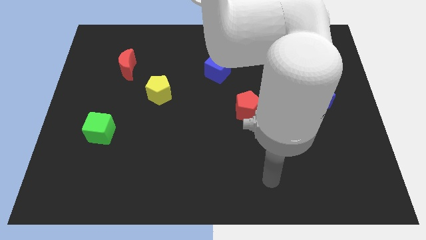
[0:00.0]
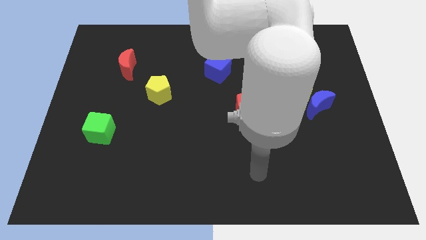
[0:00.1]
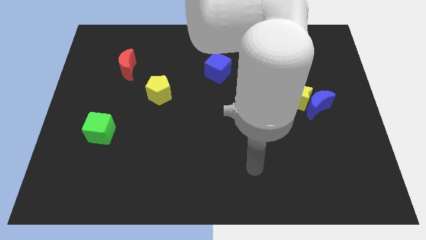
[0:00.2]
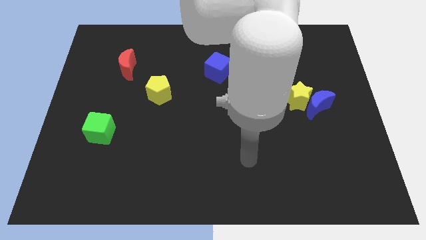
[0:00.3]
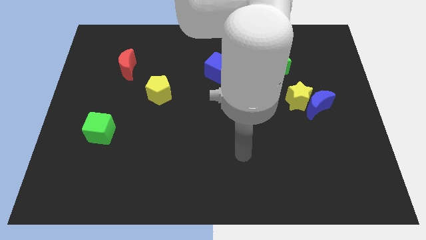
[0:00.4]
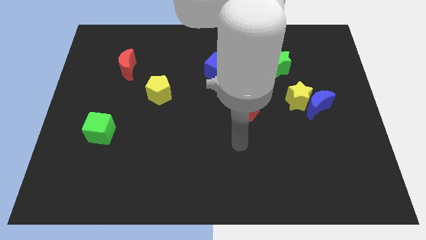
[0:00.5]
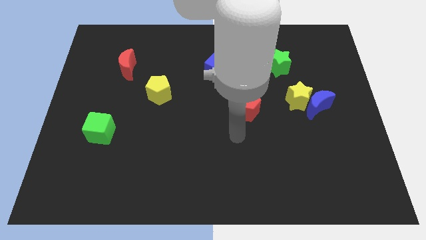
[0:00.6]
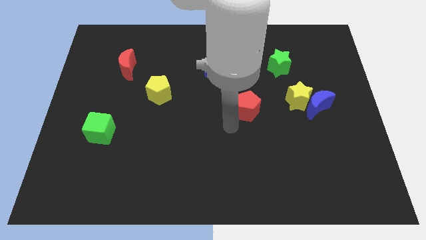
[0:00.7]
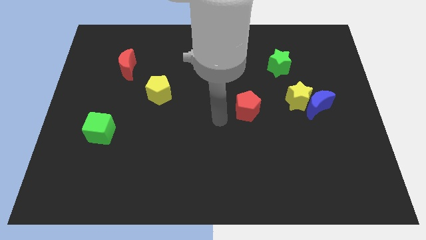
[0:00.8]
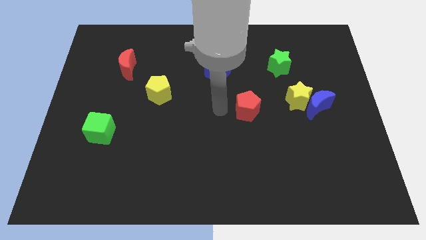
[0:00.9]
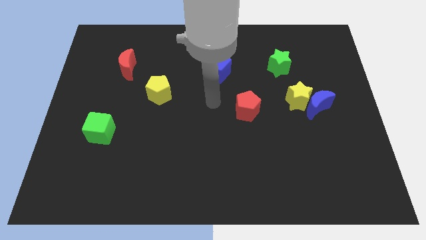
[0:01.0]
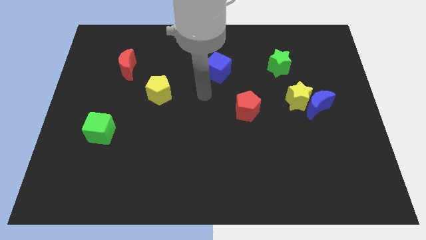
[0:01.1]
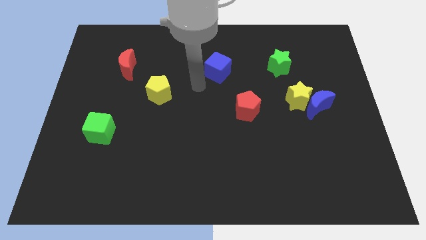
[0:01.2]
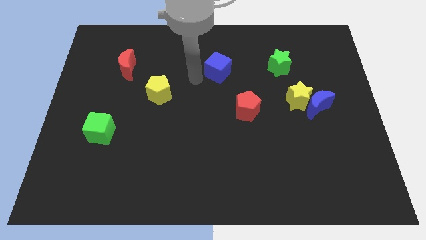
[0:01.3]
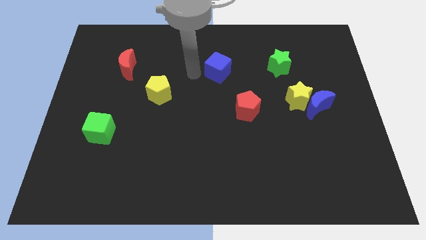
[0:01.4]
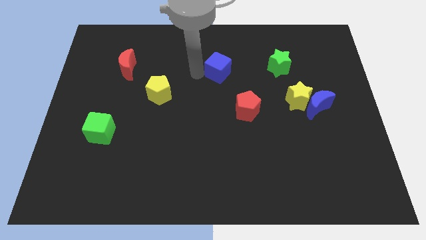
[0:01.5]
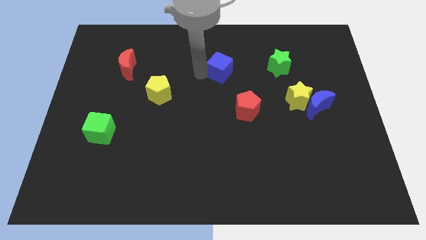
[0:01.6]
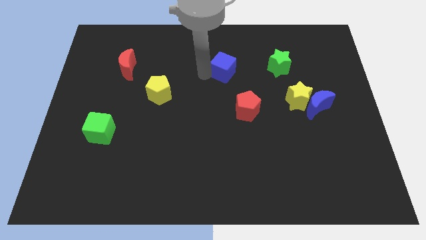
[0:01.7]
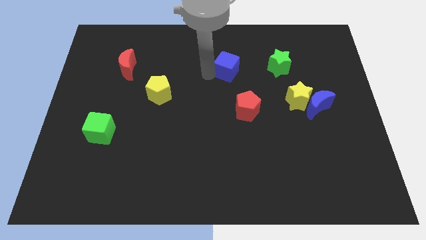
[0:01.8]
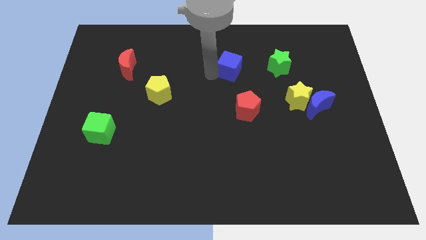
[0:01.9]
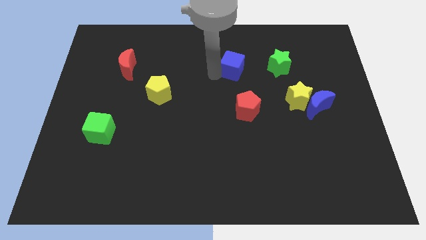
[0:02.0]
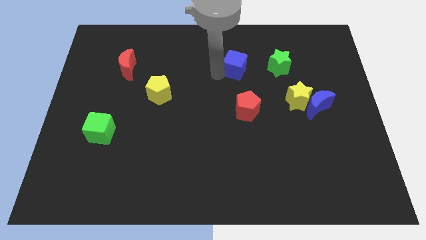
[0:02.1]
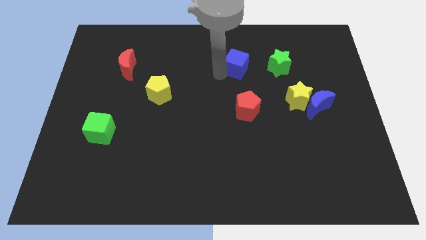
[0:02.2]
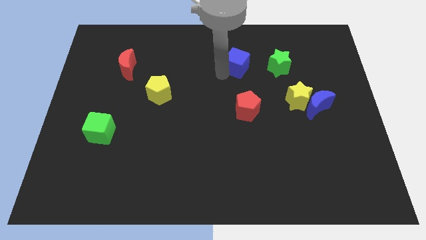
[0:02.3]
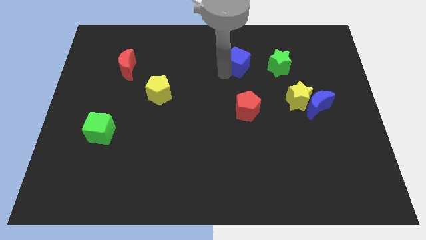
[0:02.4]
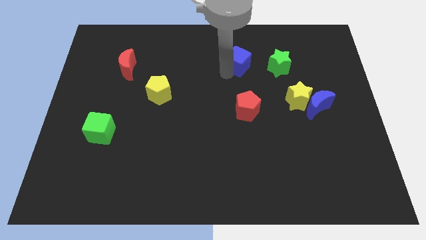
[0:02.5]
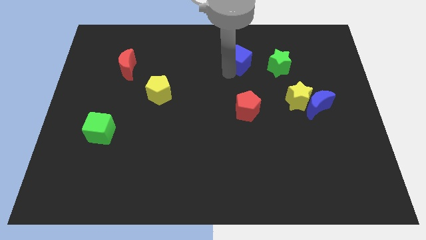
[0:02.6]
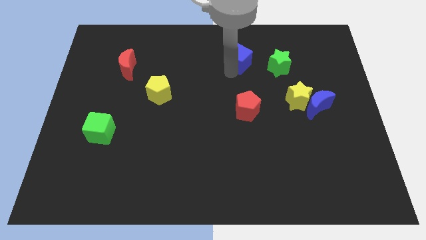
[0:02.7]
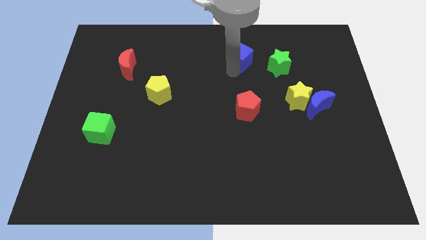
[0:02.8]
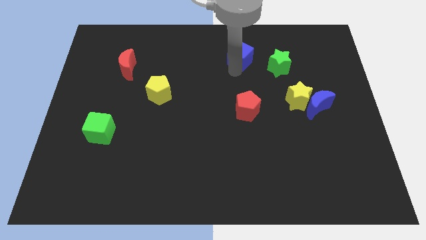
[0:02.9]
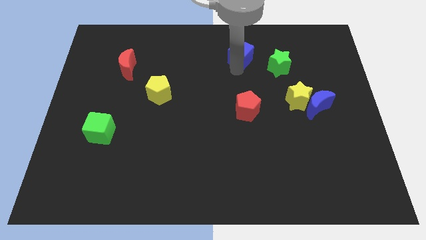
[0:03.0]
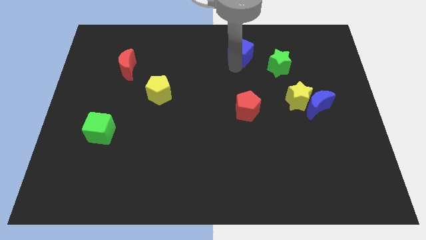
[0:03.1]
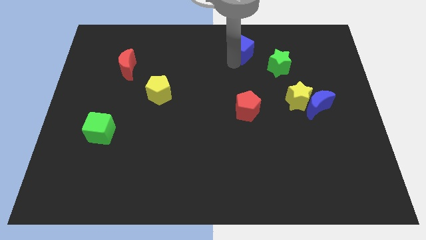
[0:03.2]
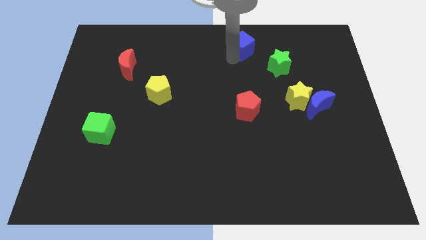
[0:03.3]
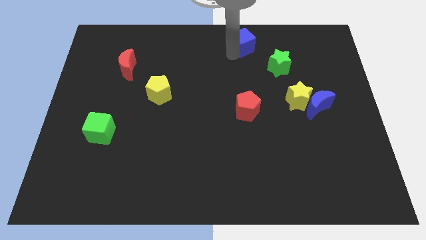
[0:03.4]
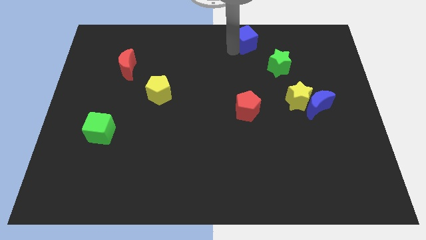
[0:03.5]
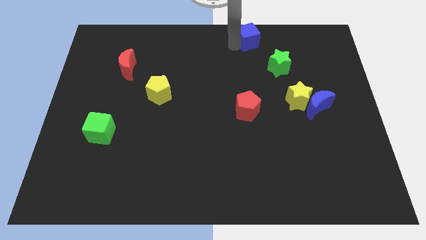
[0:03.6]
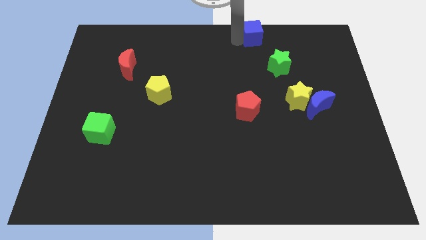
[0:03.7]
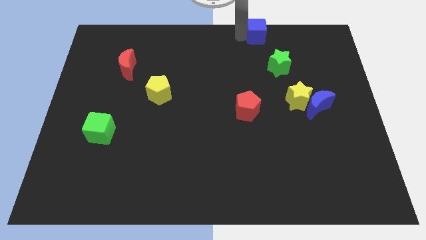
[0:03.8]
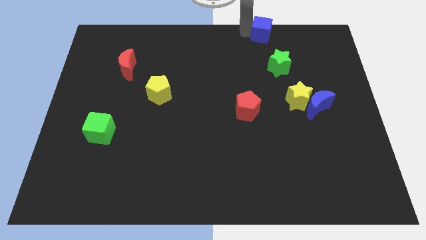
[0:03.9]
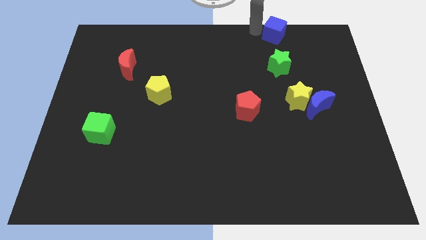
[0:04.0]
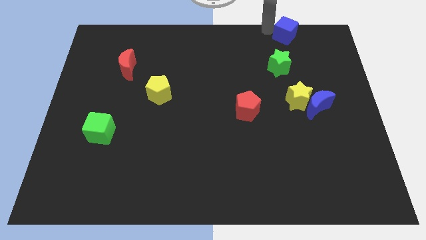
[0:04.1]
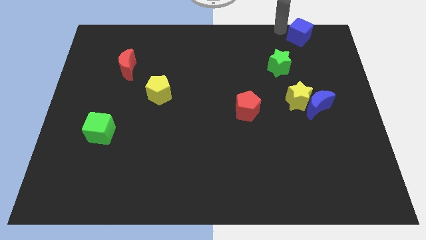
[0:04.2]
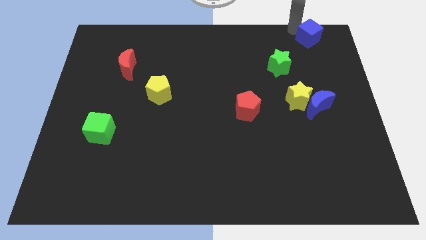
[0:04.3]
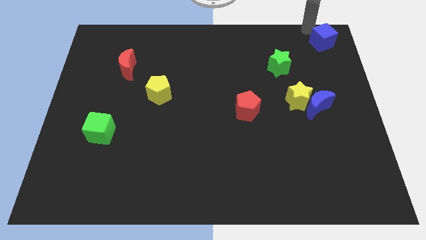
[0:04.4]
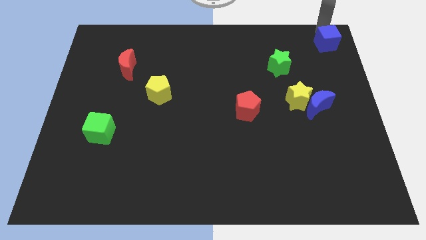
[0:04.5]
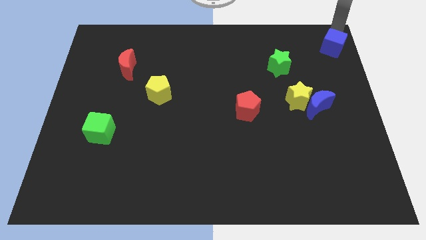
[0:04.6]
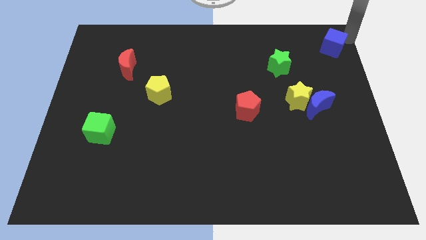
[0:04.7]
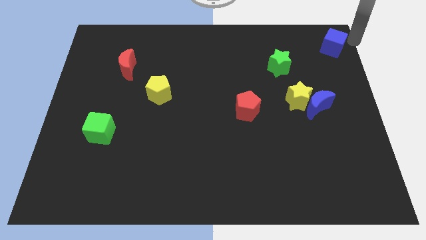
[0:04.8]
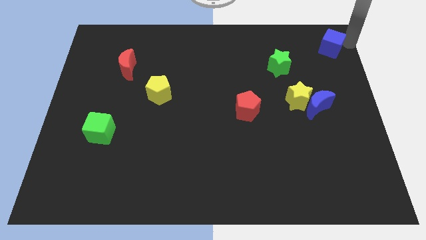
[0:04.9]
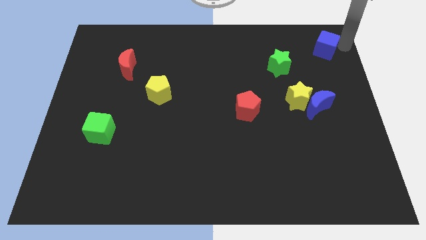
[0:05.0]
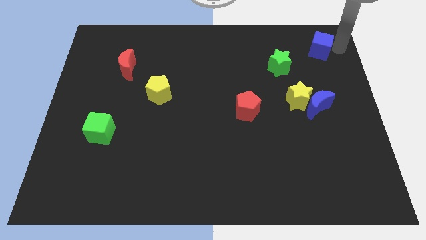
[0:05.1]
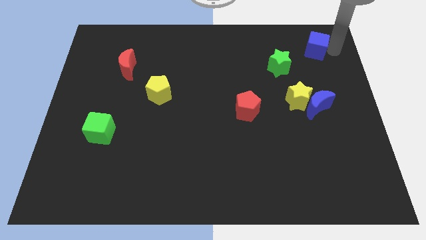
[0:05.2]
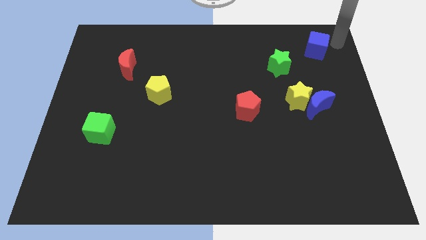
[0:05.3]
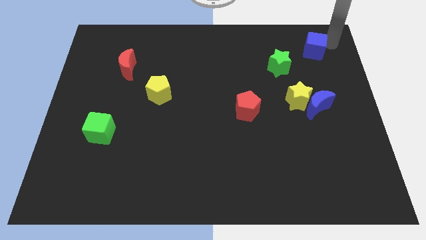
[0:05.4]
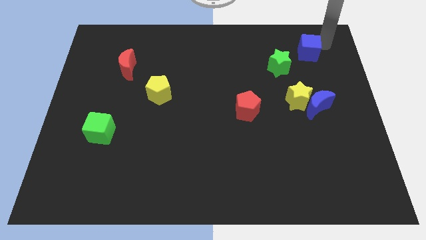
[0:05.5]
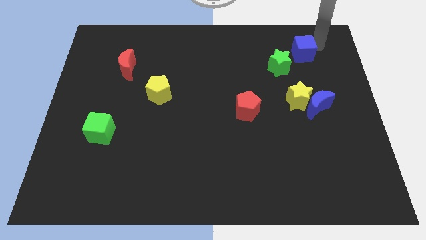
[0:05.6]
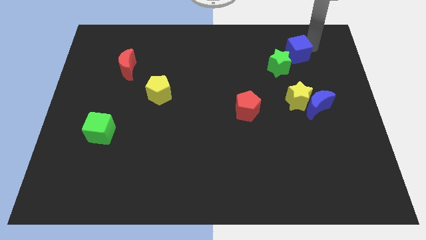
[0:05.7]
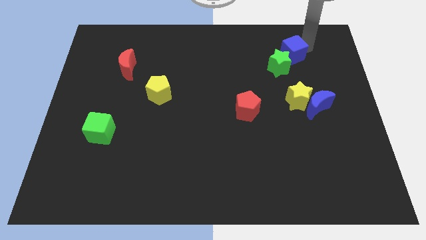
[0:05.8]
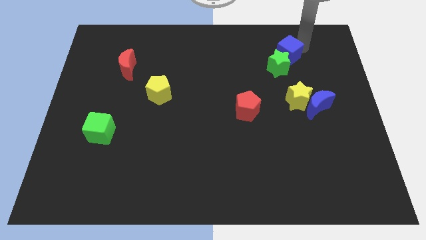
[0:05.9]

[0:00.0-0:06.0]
push the blue cube close to the green star

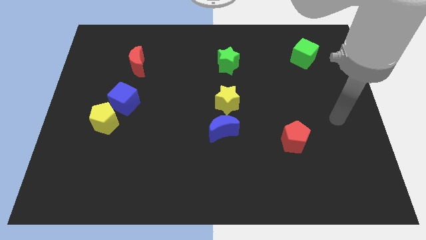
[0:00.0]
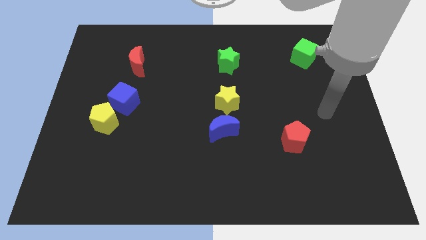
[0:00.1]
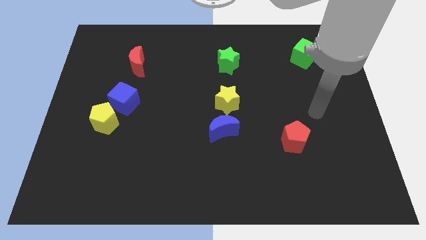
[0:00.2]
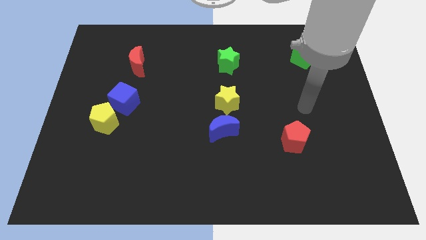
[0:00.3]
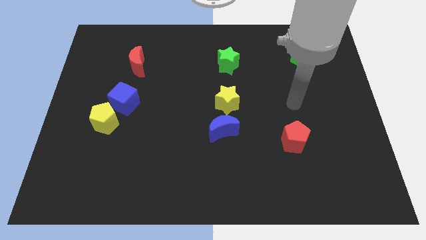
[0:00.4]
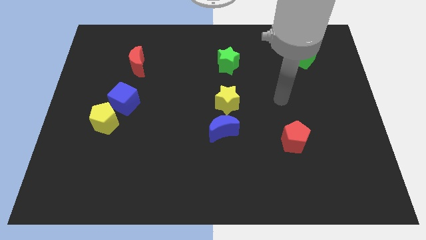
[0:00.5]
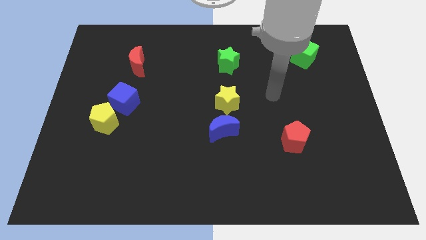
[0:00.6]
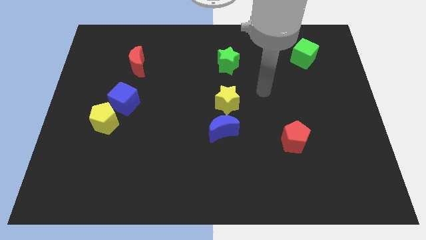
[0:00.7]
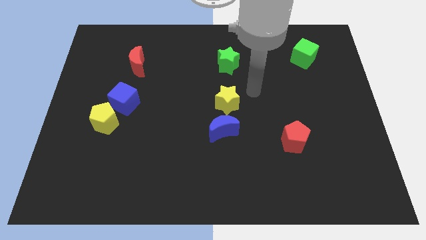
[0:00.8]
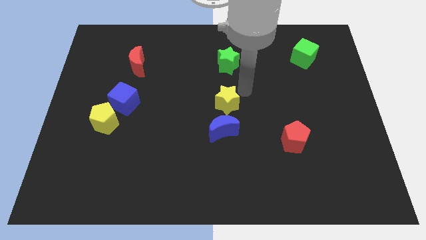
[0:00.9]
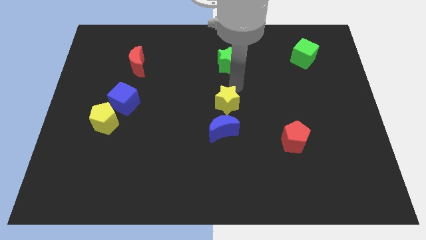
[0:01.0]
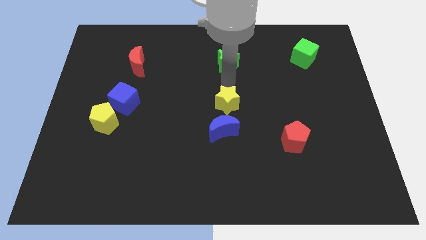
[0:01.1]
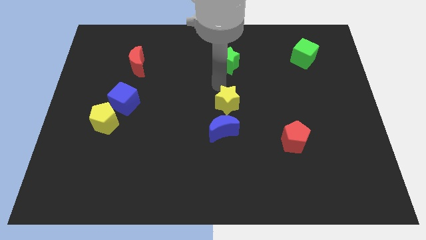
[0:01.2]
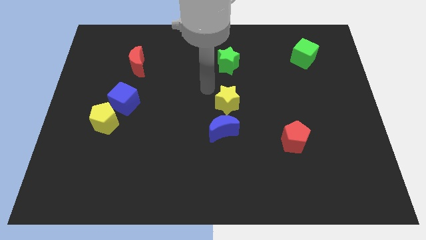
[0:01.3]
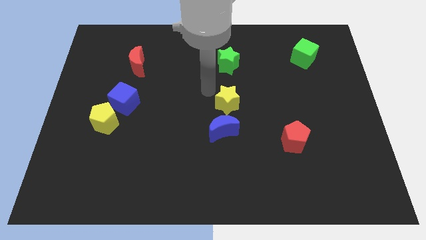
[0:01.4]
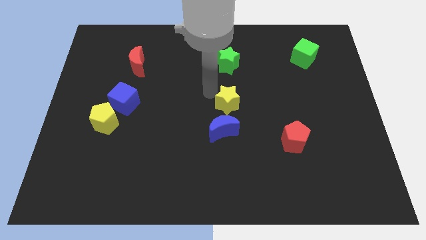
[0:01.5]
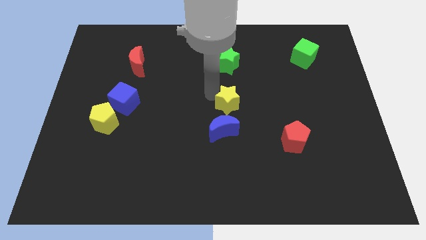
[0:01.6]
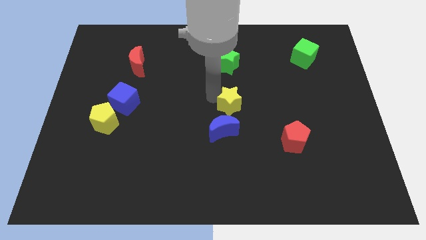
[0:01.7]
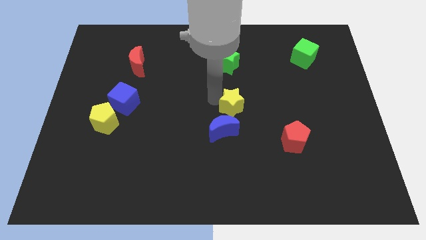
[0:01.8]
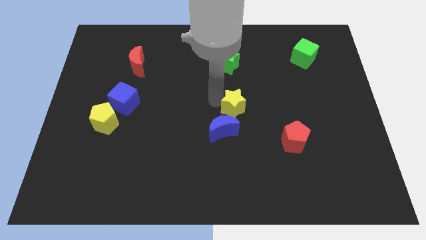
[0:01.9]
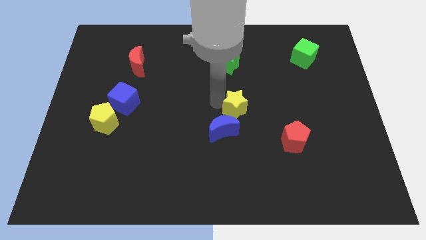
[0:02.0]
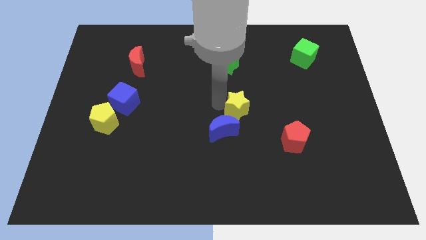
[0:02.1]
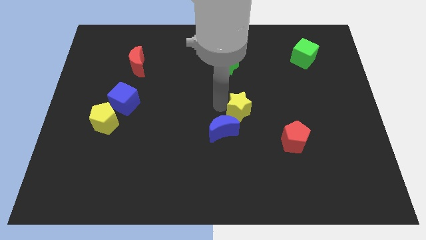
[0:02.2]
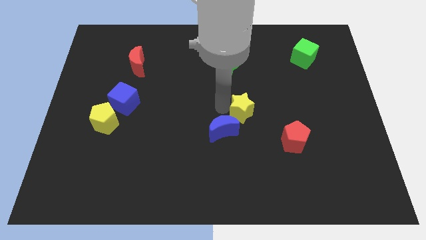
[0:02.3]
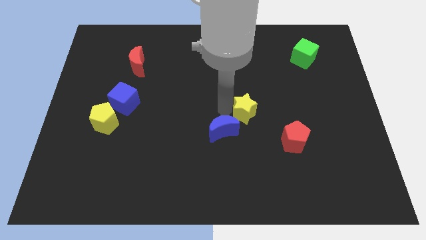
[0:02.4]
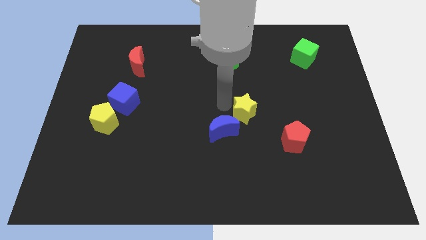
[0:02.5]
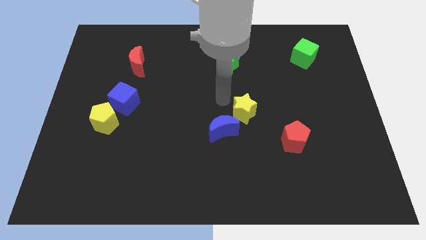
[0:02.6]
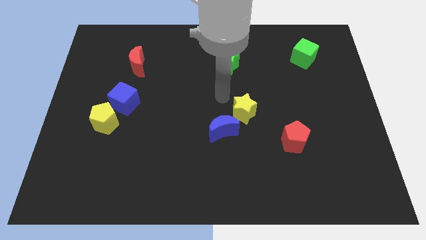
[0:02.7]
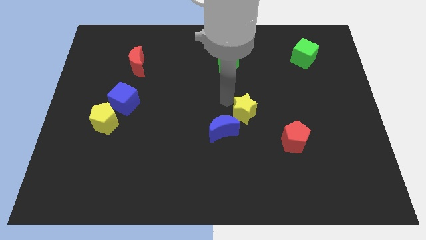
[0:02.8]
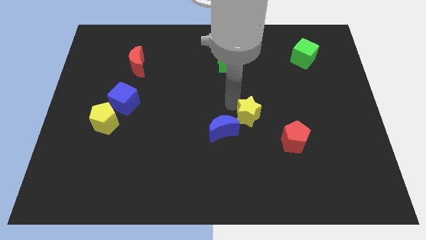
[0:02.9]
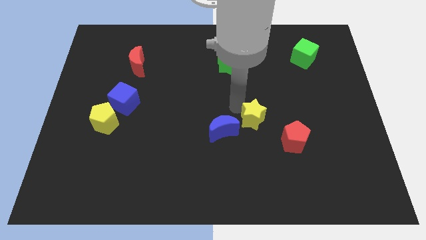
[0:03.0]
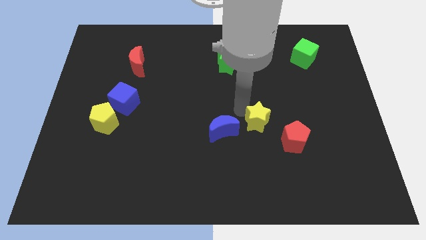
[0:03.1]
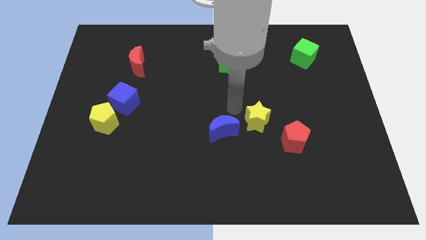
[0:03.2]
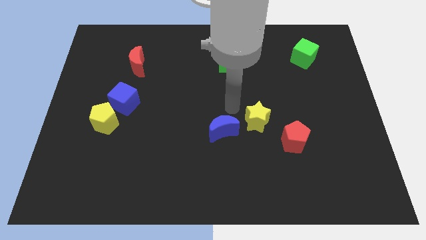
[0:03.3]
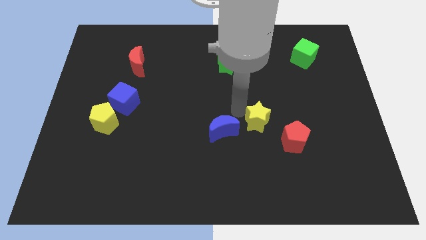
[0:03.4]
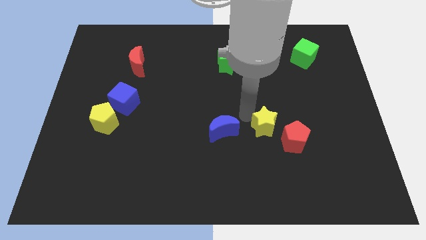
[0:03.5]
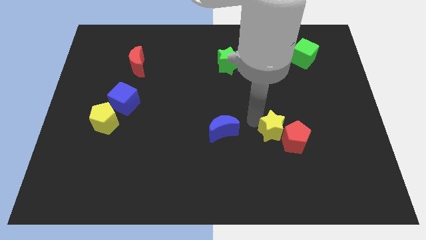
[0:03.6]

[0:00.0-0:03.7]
slide the yellow star next to the red pentagon
